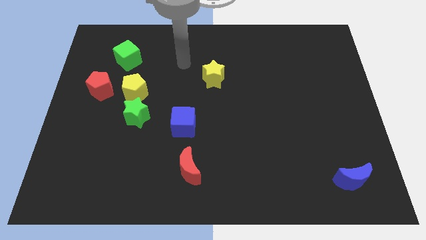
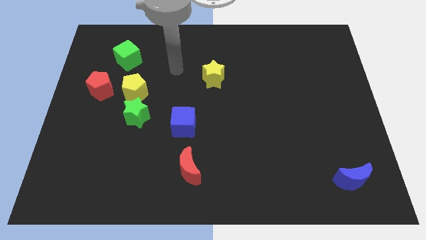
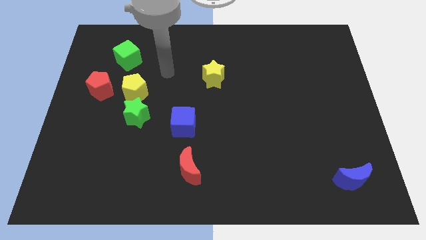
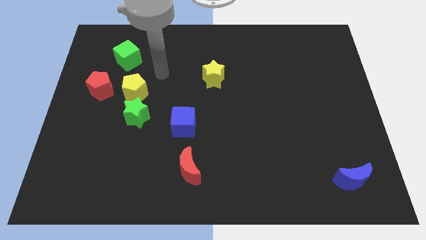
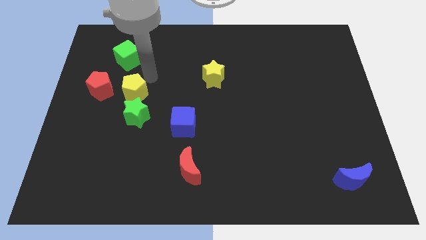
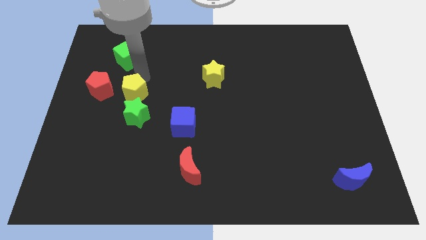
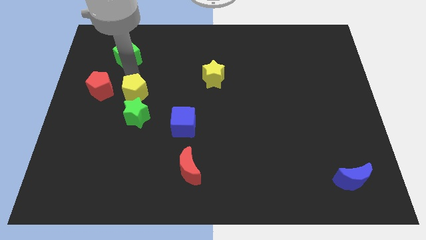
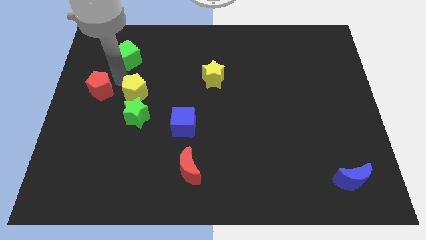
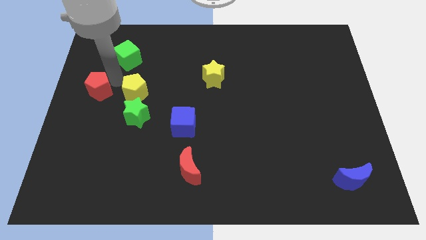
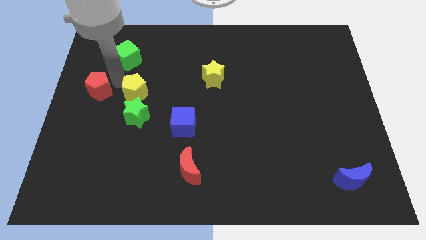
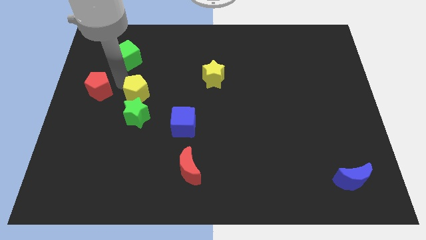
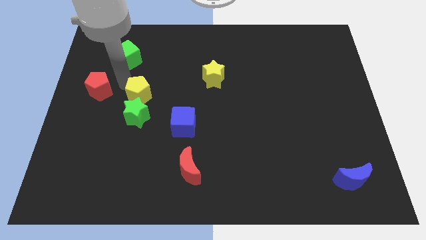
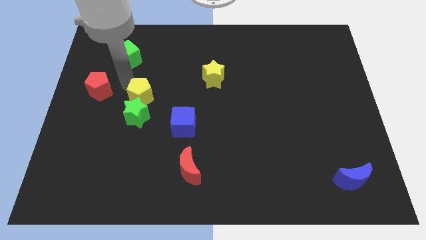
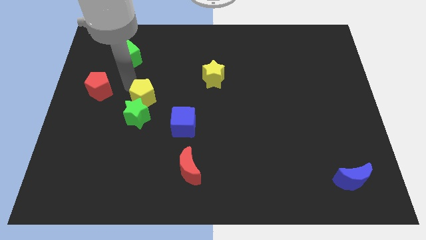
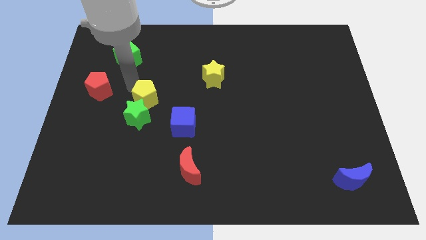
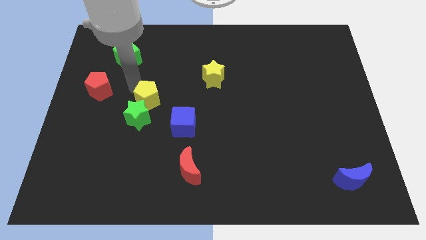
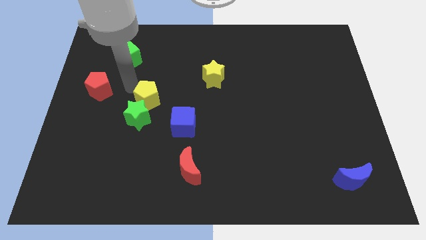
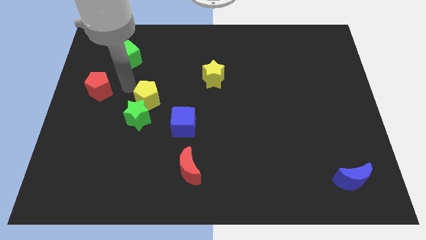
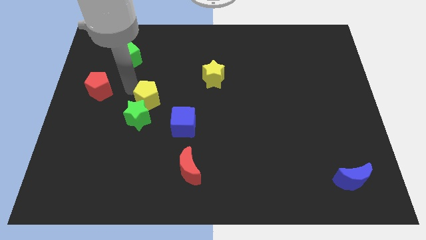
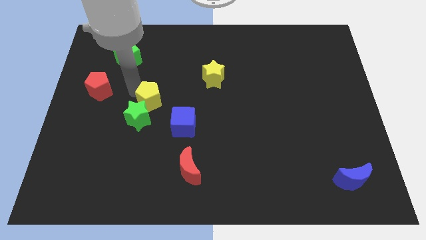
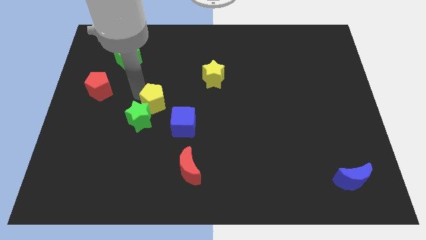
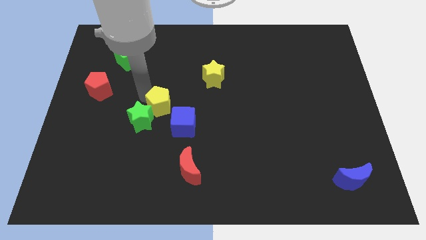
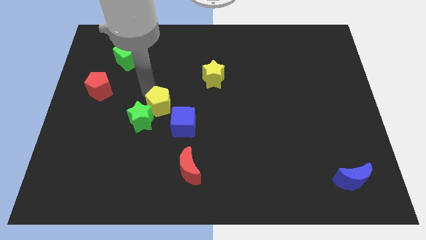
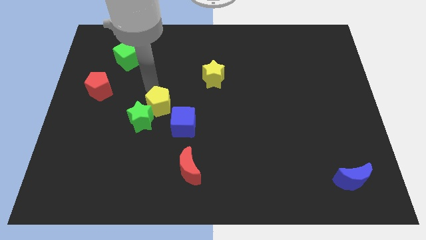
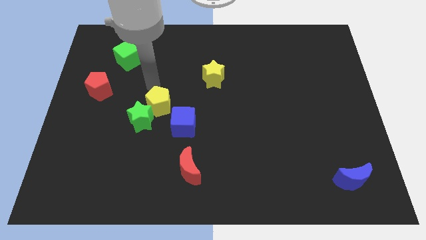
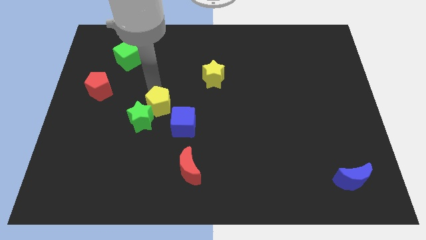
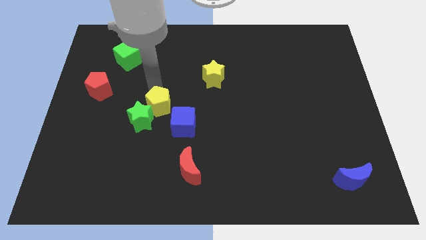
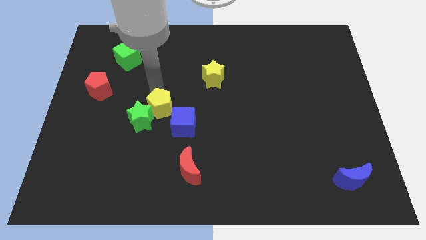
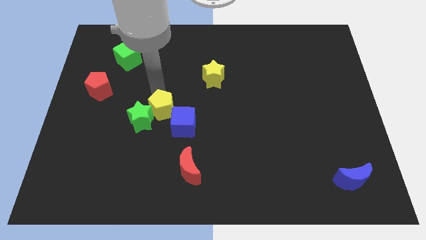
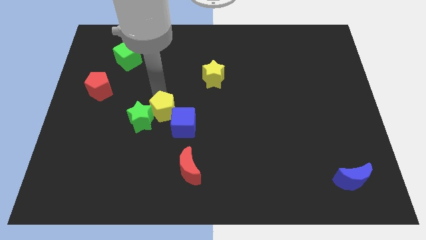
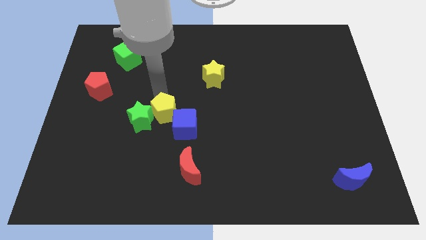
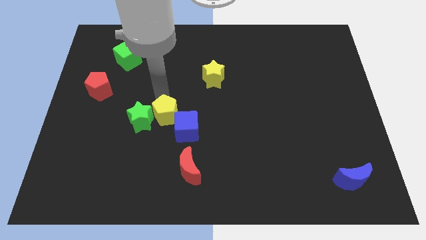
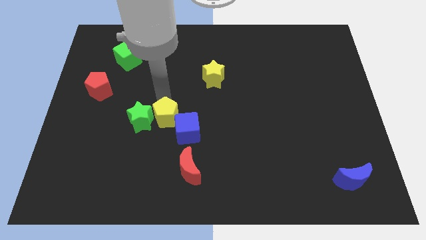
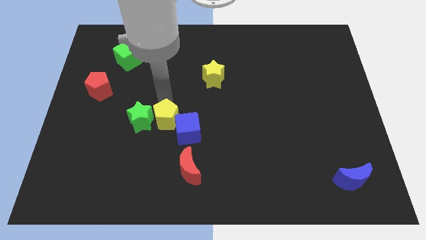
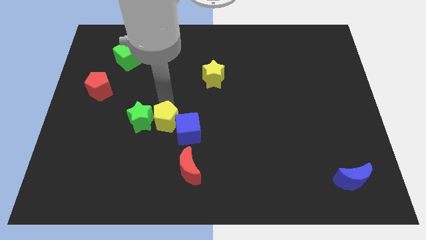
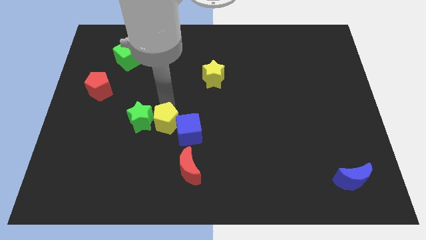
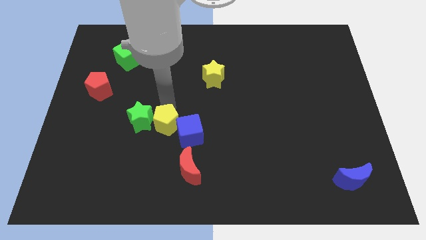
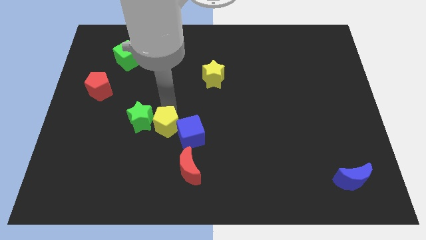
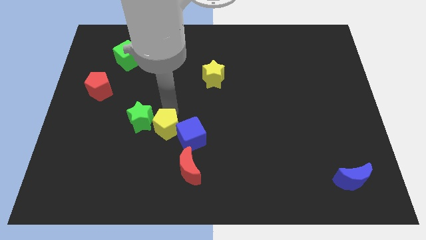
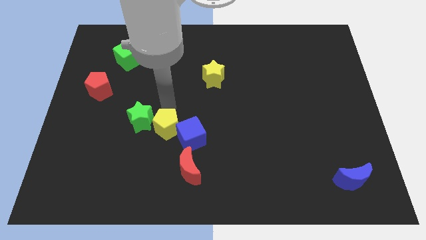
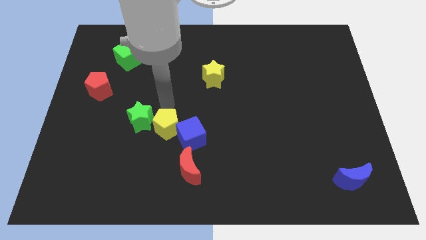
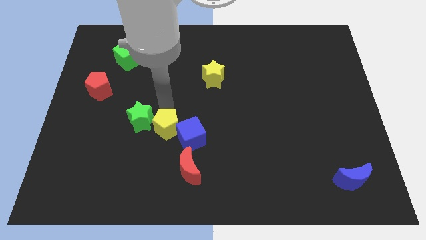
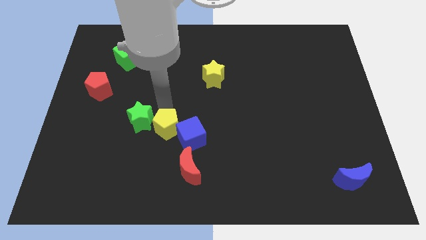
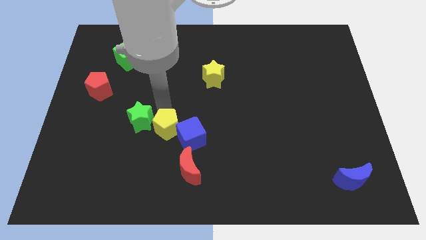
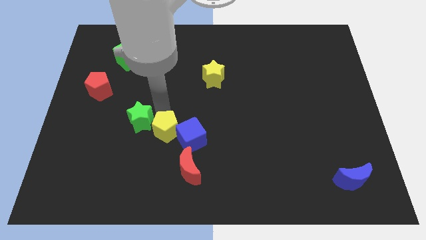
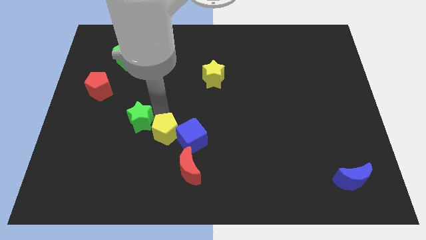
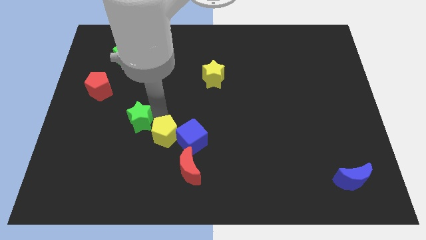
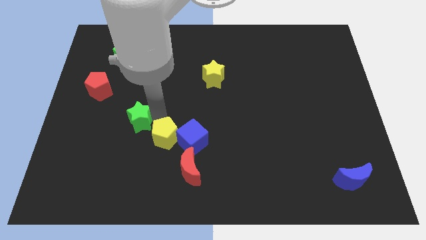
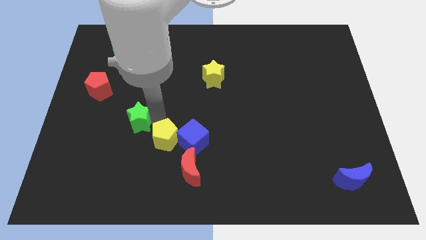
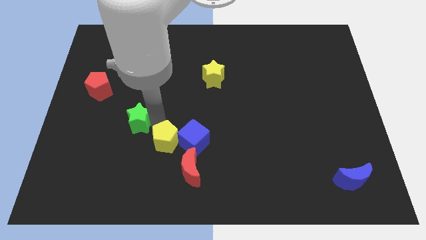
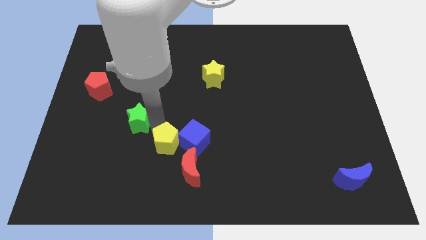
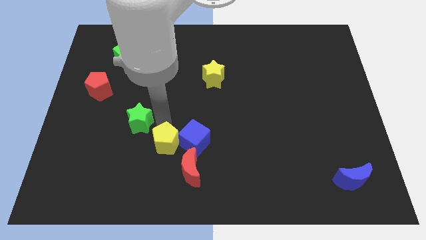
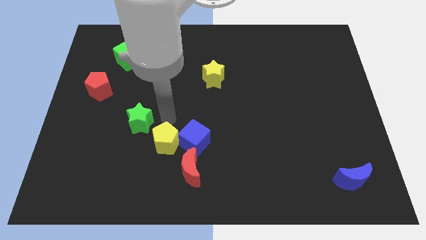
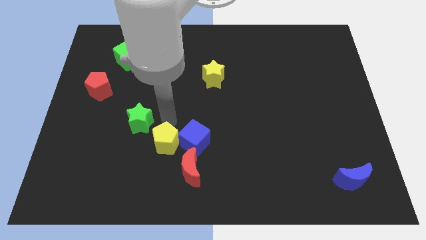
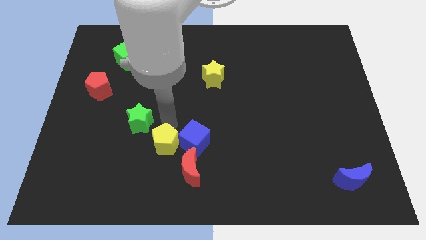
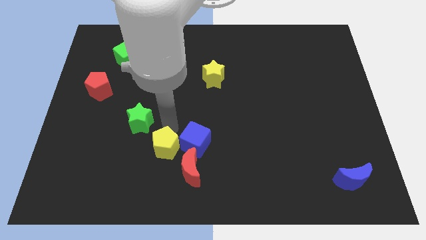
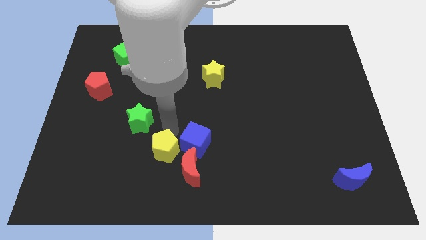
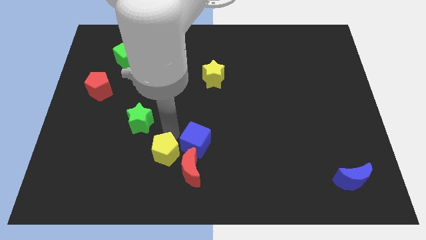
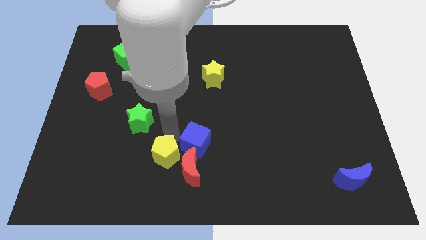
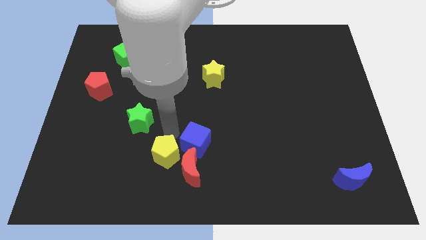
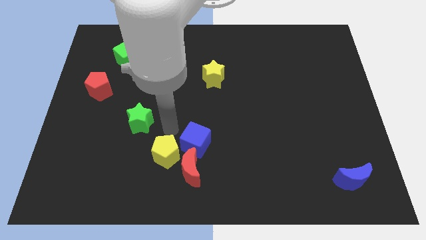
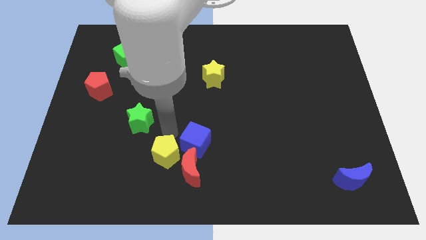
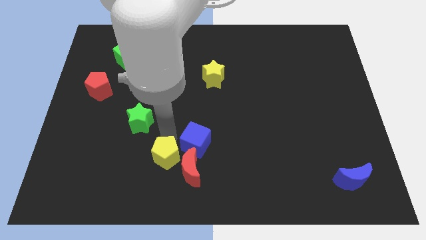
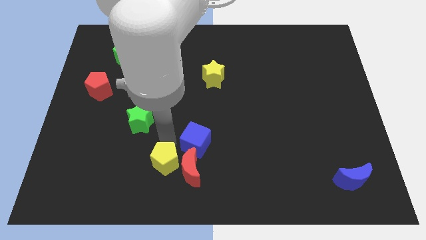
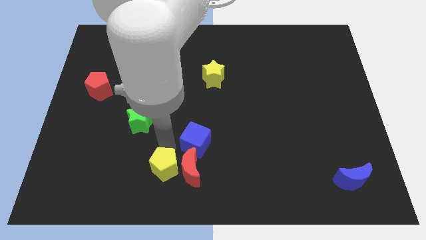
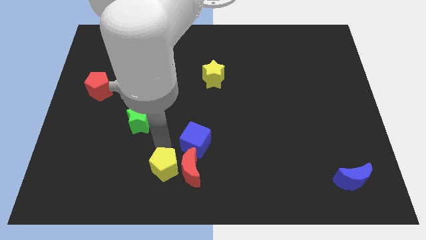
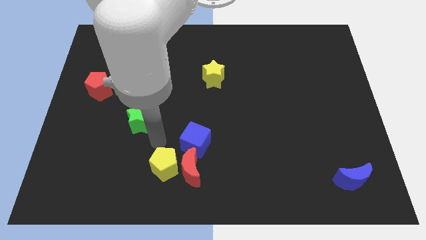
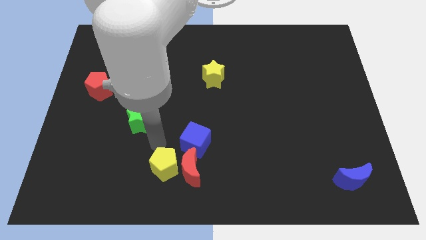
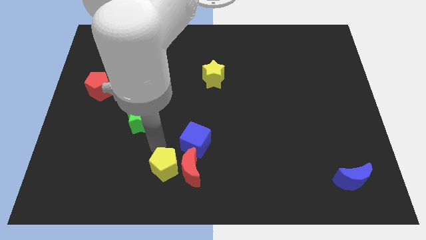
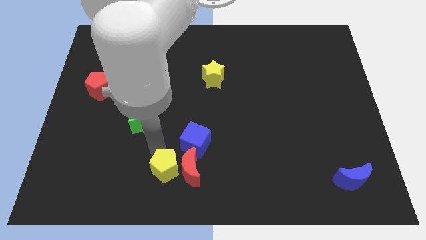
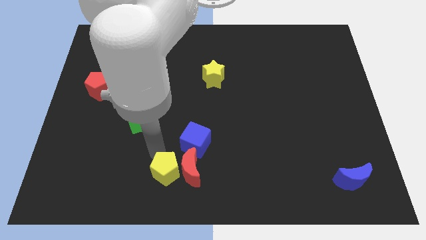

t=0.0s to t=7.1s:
slide the yellow pentagon to the bottom side

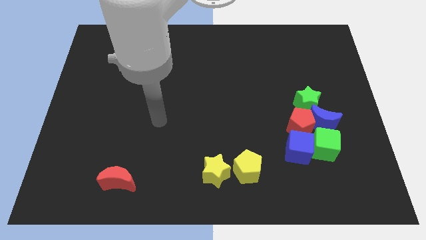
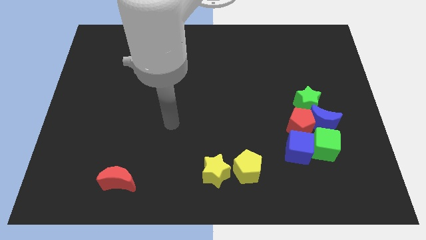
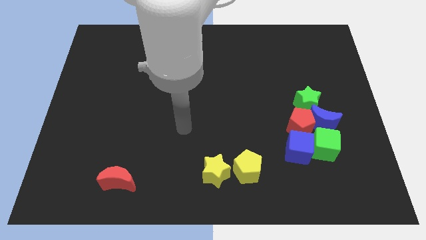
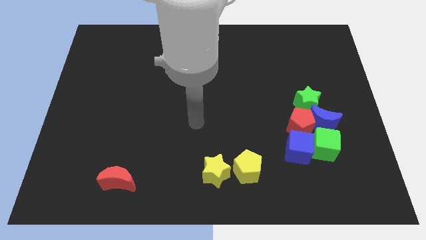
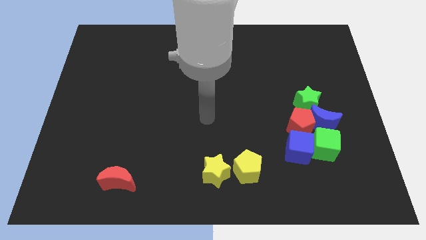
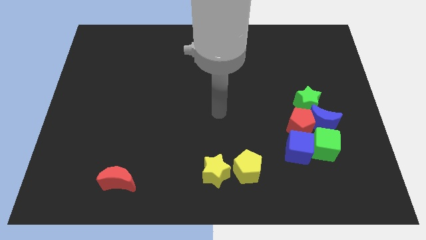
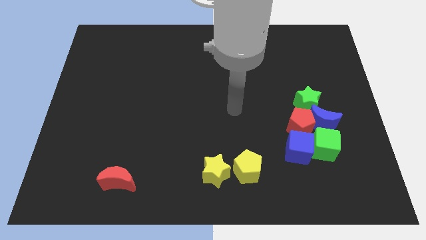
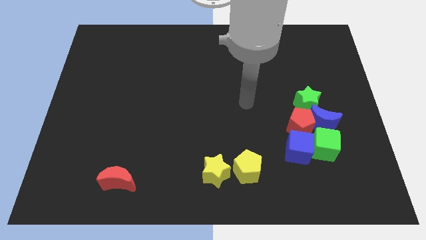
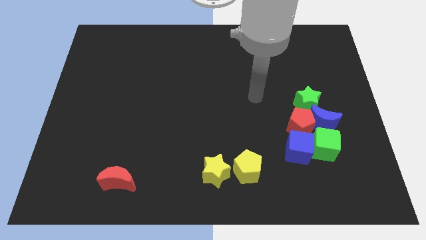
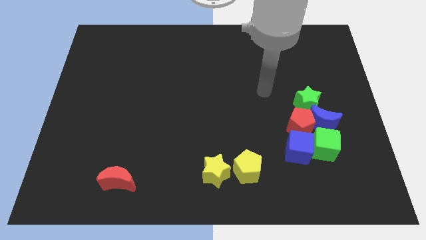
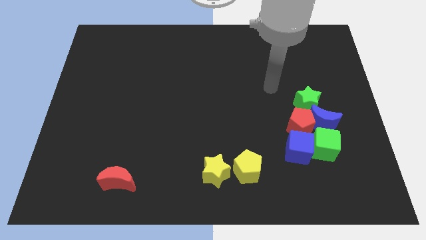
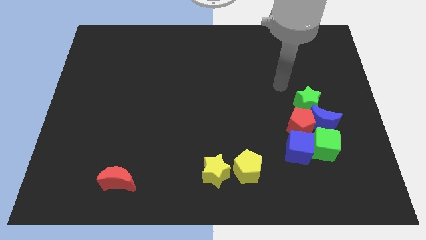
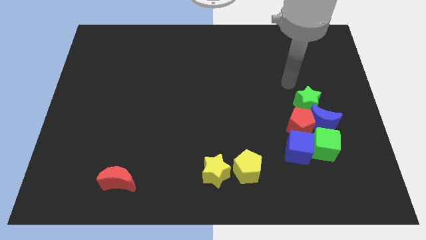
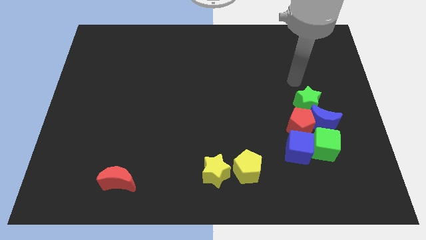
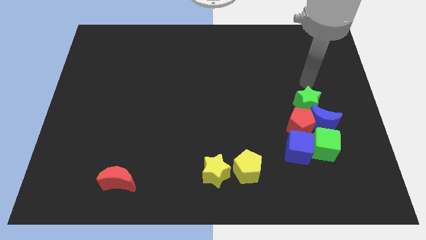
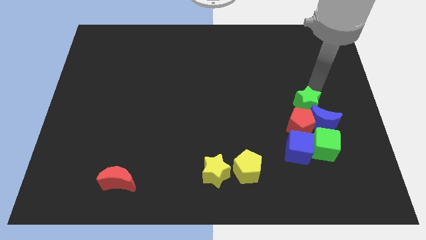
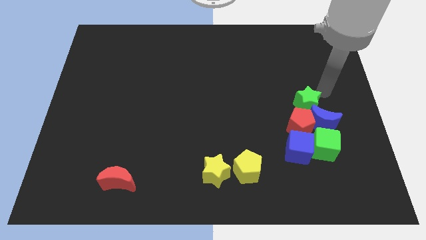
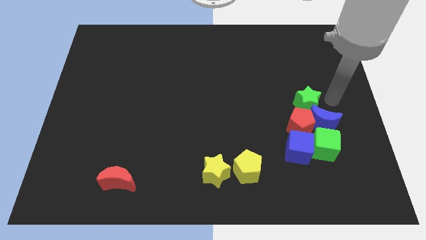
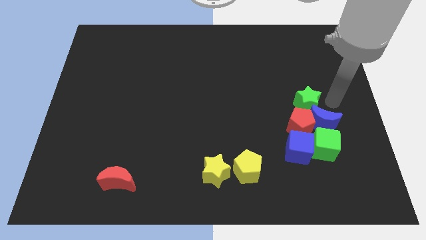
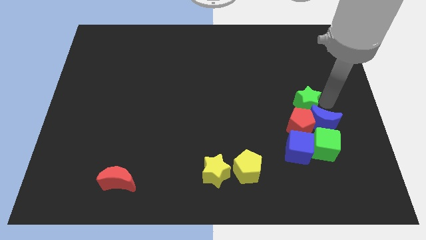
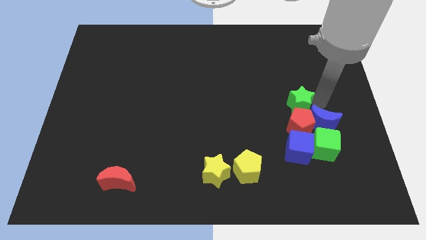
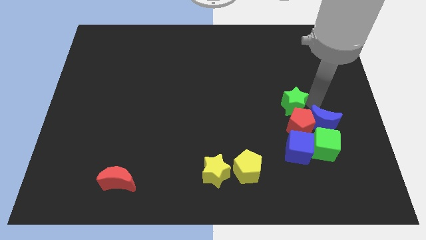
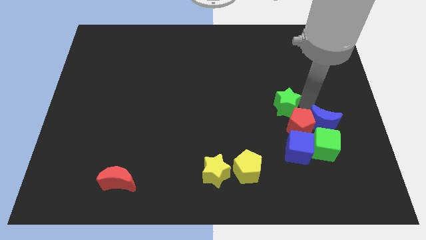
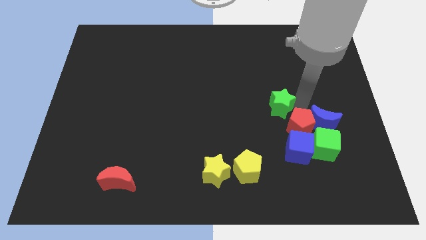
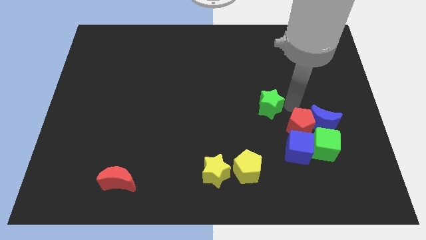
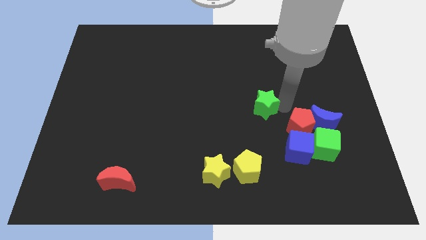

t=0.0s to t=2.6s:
slide the green star to the center of the board
